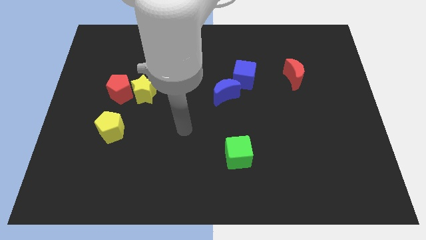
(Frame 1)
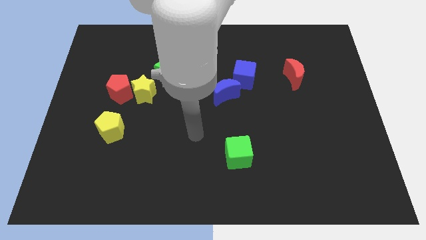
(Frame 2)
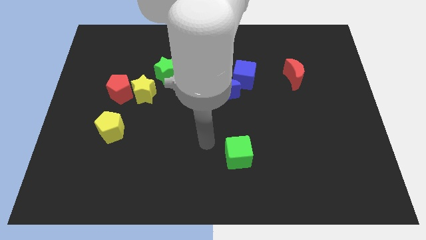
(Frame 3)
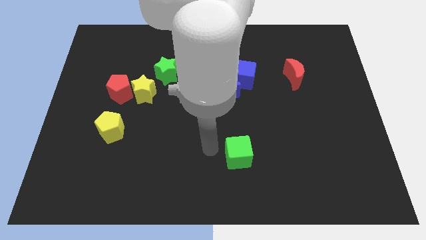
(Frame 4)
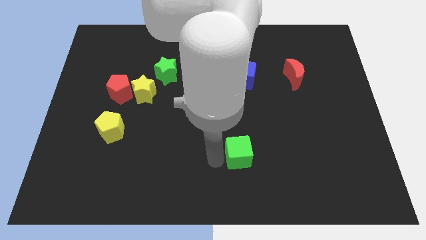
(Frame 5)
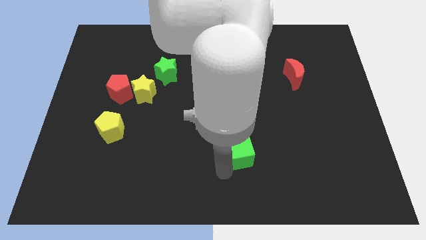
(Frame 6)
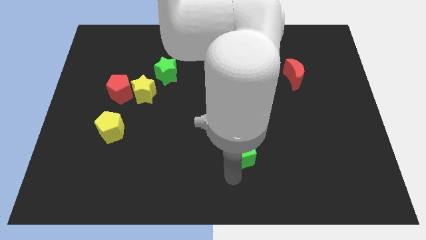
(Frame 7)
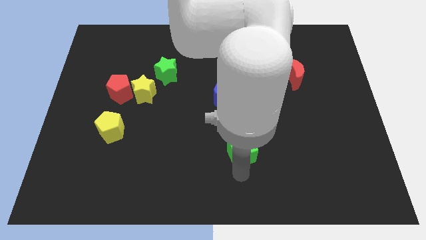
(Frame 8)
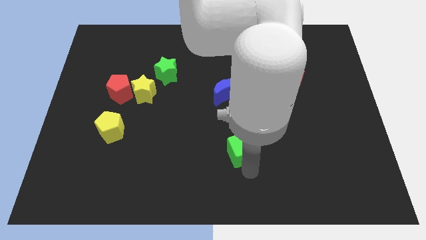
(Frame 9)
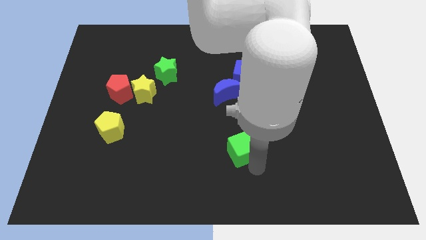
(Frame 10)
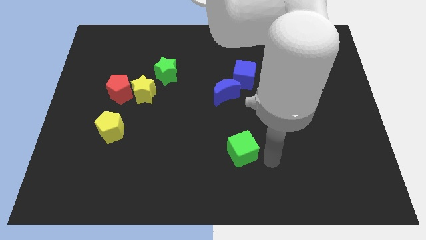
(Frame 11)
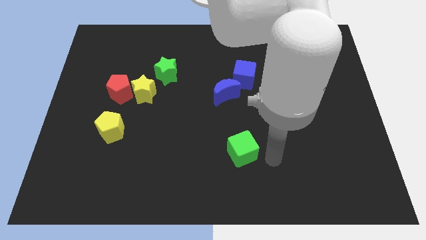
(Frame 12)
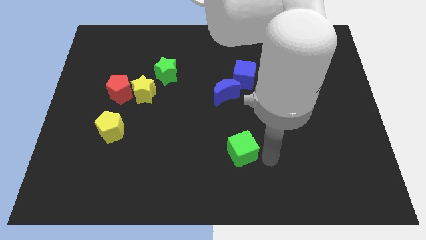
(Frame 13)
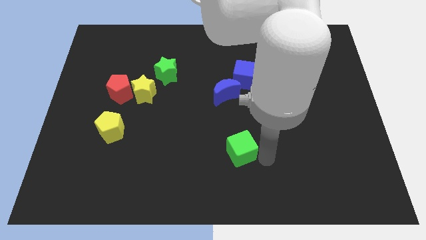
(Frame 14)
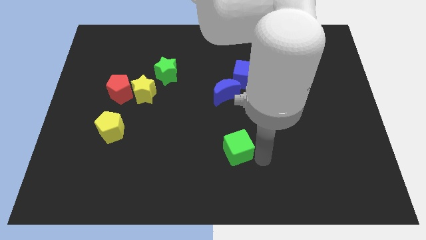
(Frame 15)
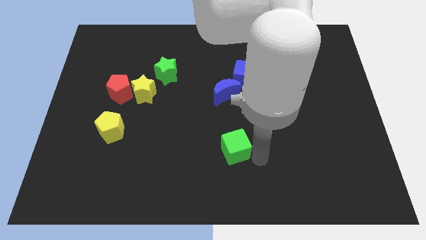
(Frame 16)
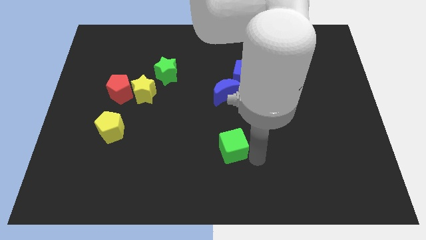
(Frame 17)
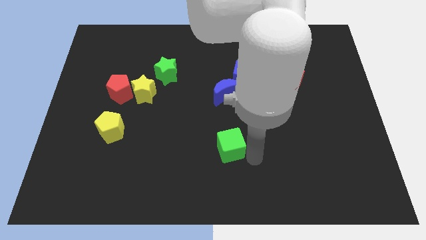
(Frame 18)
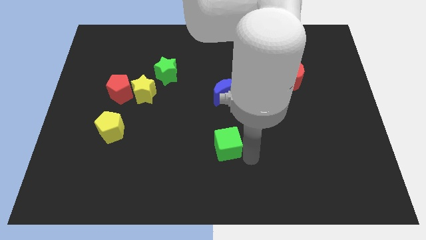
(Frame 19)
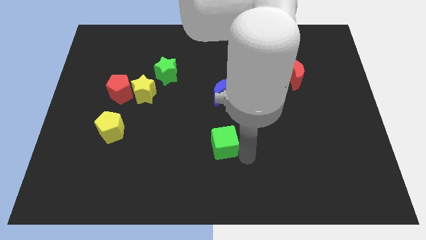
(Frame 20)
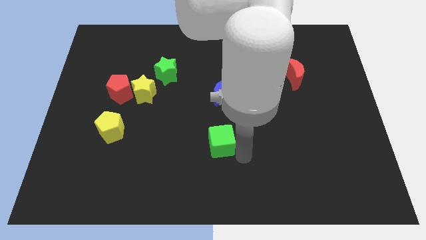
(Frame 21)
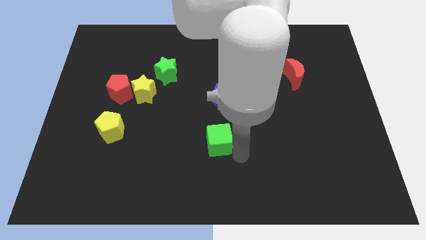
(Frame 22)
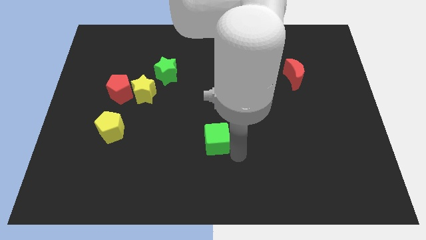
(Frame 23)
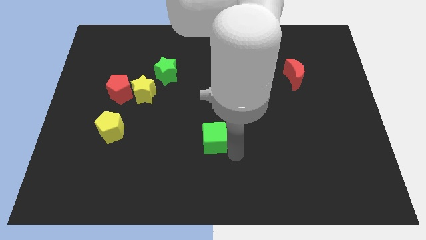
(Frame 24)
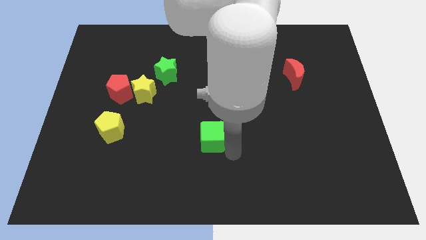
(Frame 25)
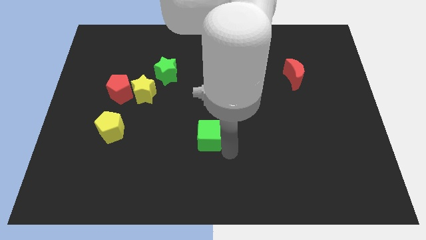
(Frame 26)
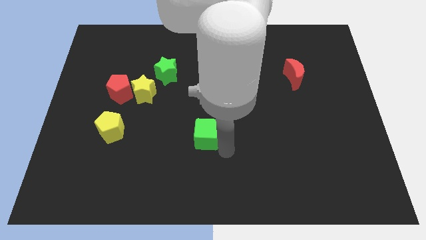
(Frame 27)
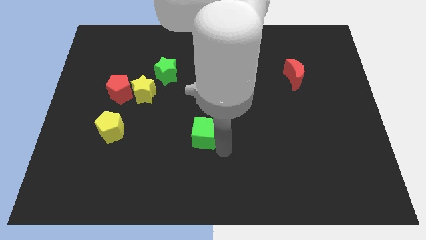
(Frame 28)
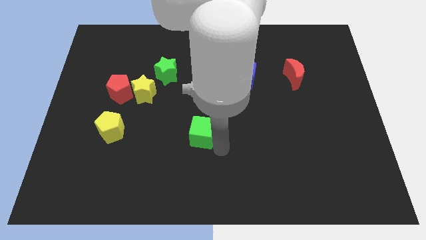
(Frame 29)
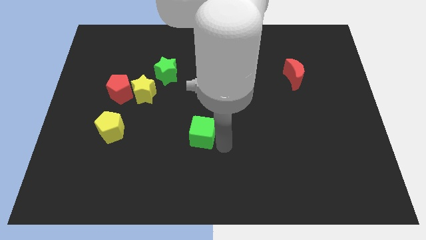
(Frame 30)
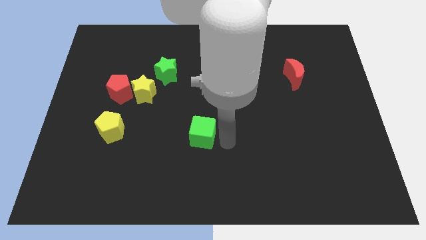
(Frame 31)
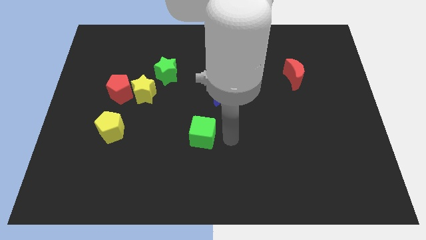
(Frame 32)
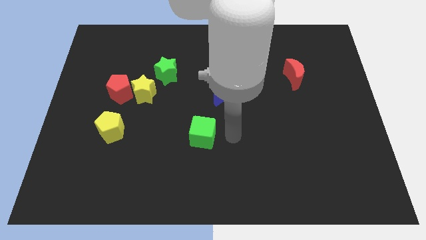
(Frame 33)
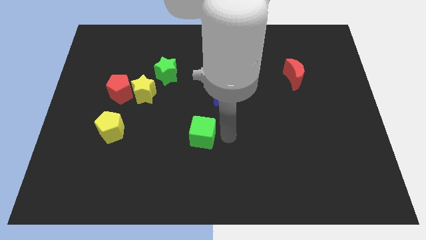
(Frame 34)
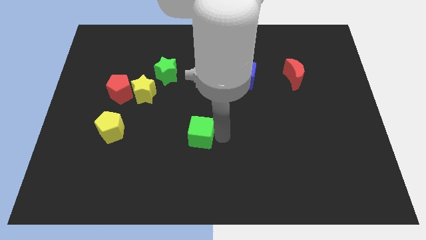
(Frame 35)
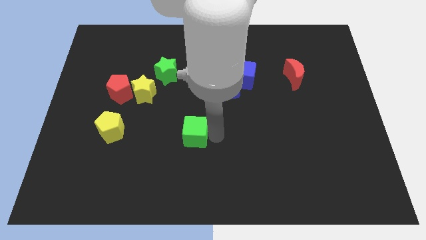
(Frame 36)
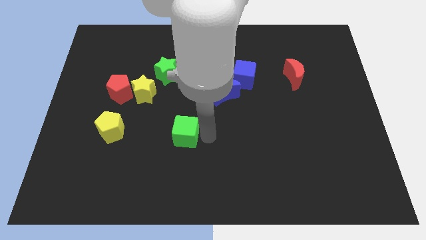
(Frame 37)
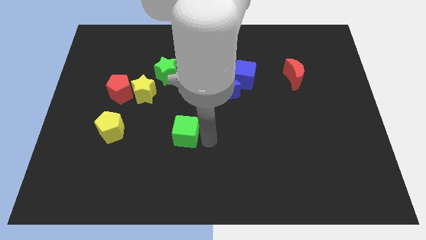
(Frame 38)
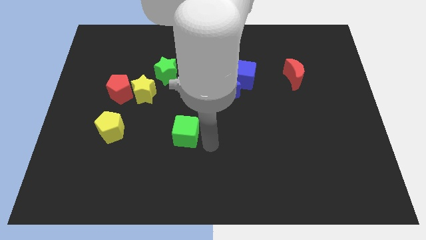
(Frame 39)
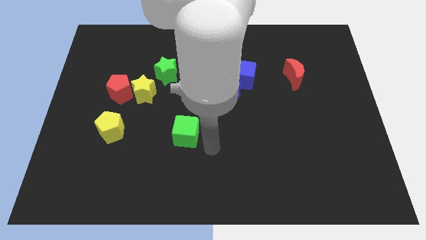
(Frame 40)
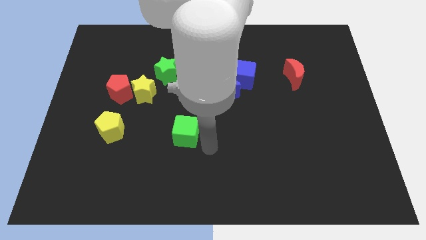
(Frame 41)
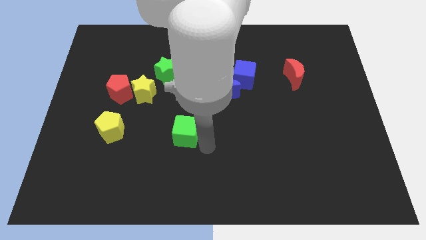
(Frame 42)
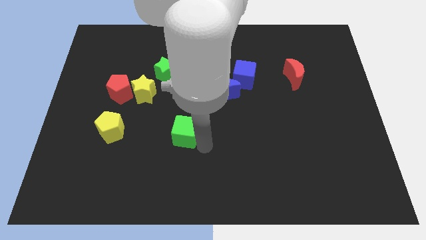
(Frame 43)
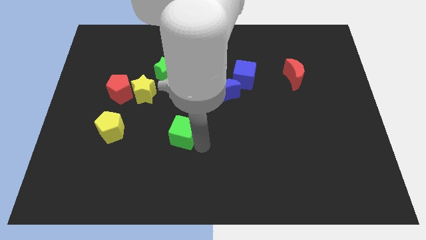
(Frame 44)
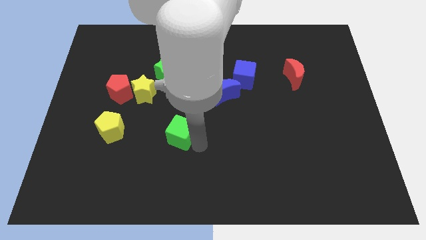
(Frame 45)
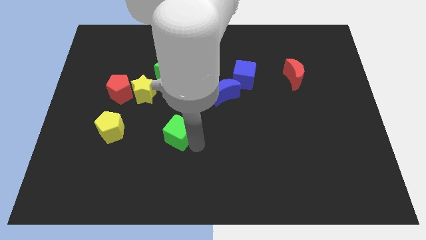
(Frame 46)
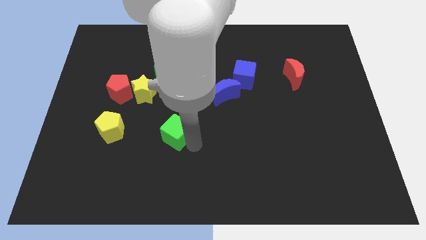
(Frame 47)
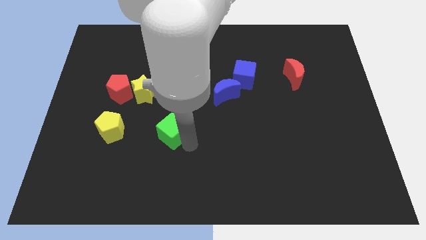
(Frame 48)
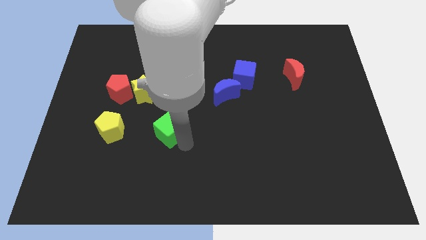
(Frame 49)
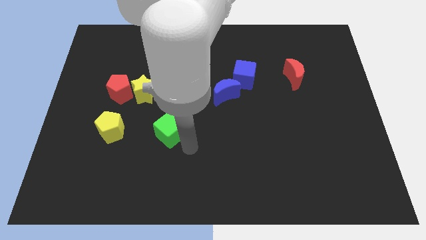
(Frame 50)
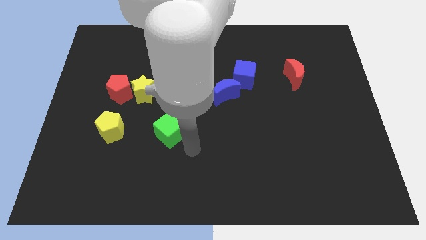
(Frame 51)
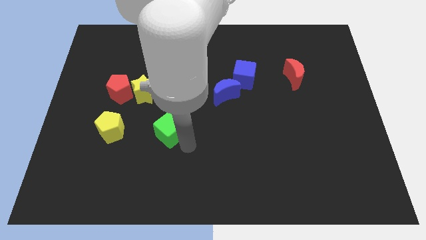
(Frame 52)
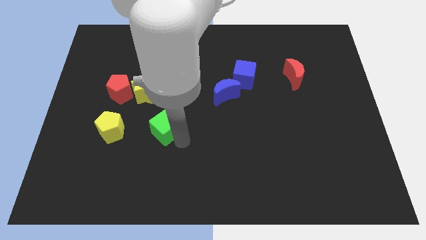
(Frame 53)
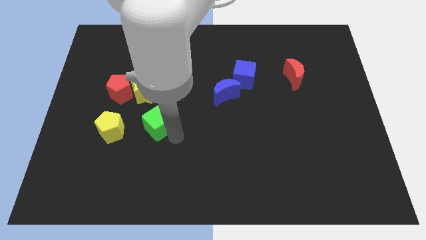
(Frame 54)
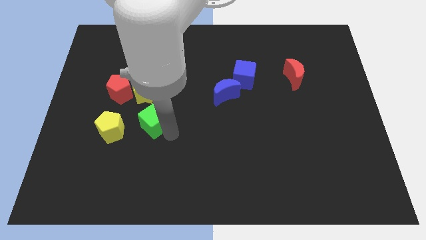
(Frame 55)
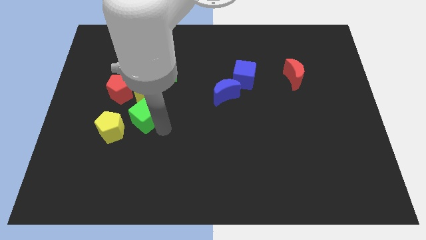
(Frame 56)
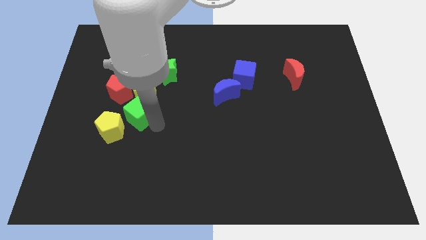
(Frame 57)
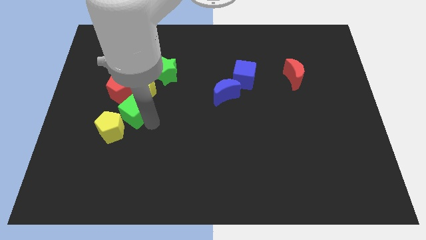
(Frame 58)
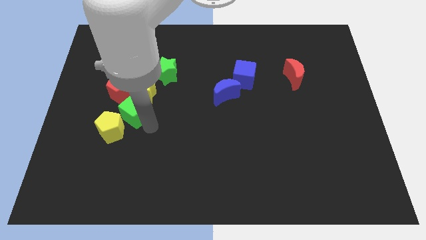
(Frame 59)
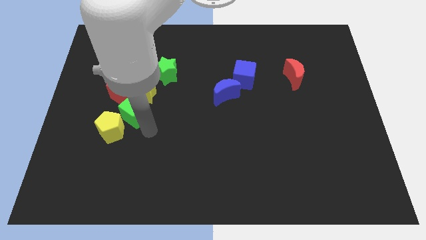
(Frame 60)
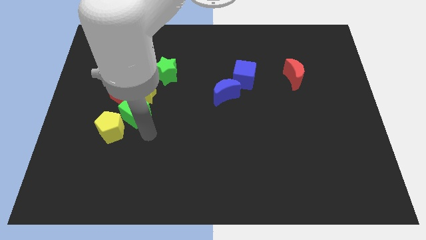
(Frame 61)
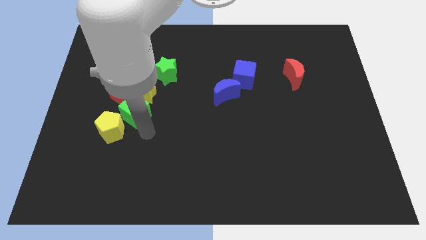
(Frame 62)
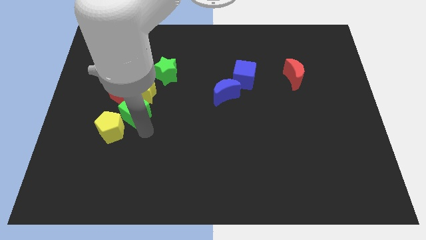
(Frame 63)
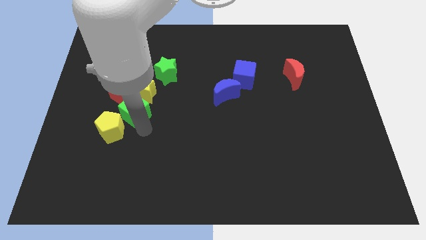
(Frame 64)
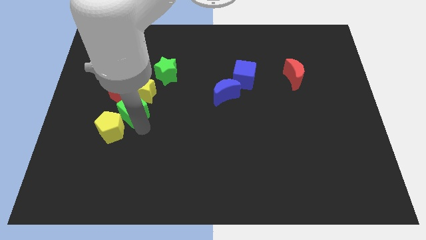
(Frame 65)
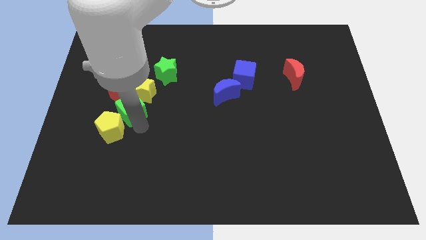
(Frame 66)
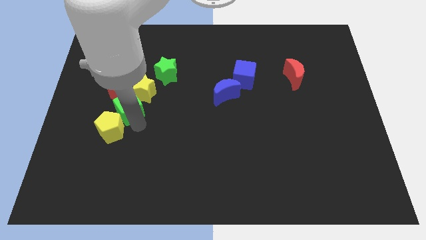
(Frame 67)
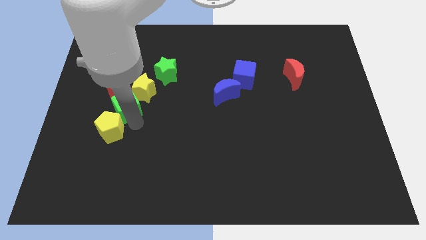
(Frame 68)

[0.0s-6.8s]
push the green cube to the red pentagon

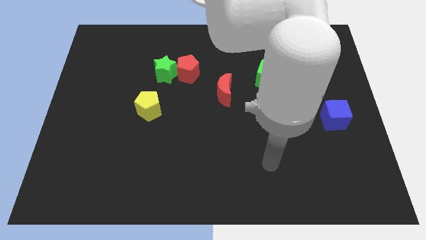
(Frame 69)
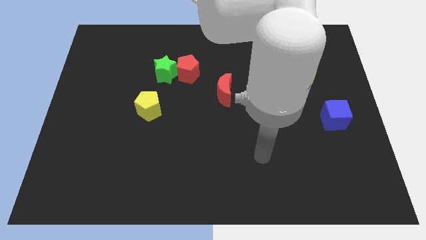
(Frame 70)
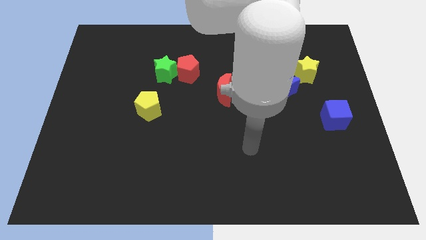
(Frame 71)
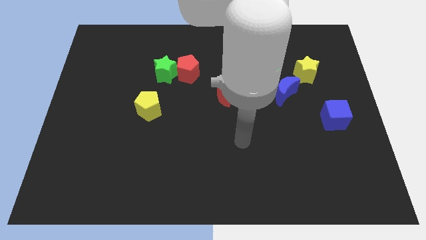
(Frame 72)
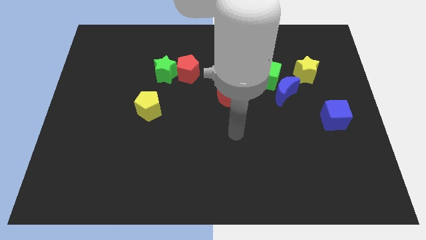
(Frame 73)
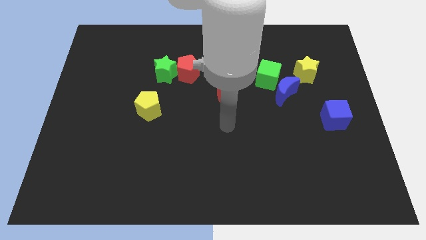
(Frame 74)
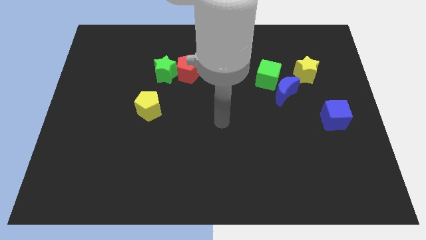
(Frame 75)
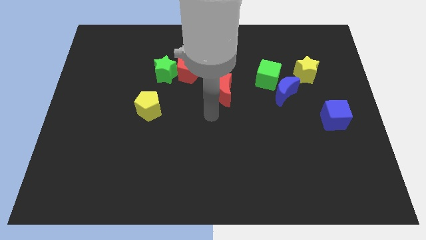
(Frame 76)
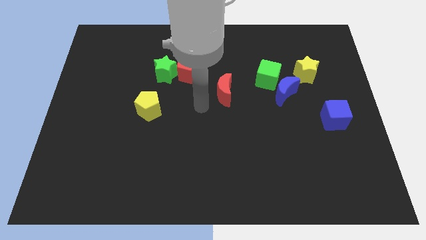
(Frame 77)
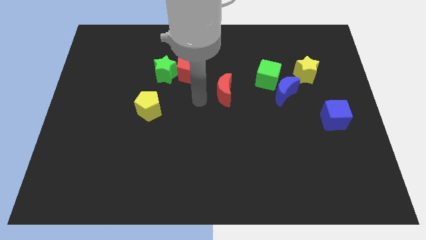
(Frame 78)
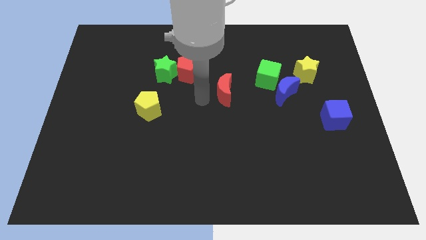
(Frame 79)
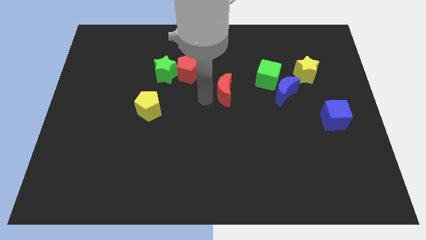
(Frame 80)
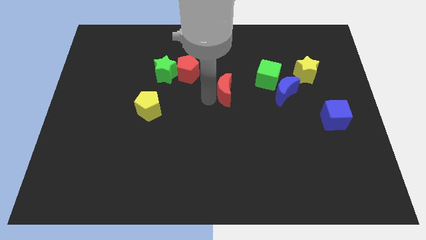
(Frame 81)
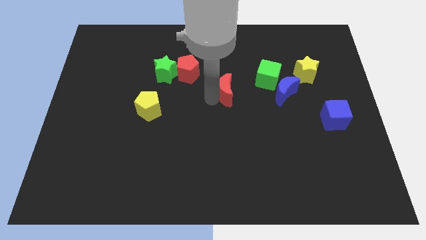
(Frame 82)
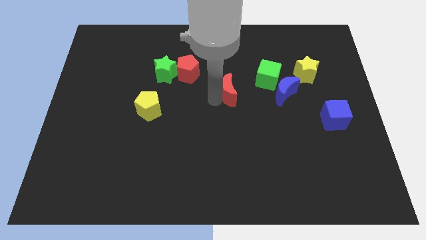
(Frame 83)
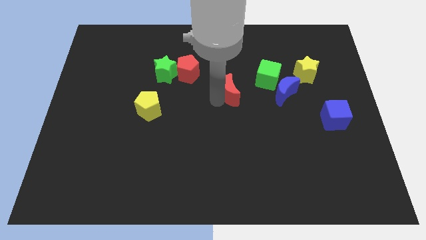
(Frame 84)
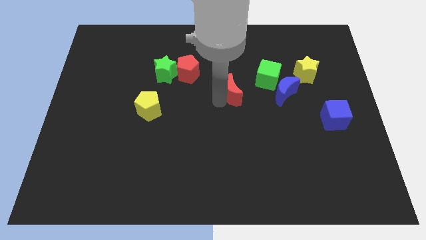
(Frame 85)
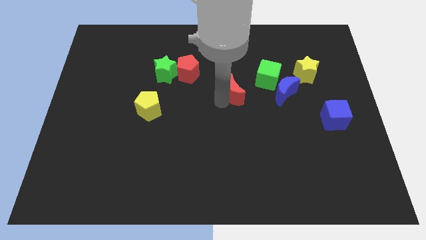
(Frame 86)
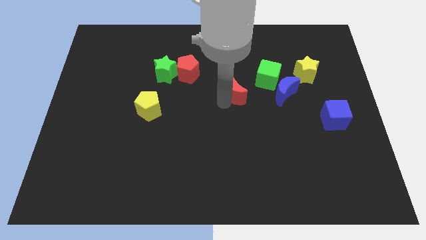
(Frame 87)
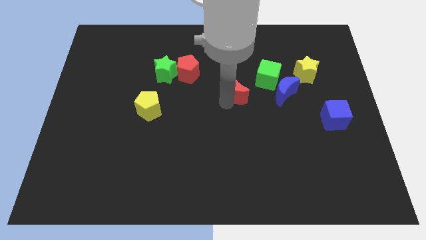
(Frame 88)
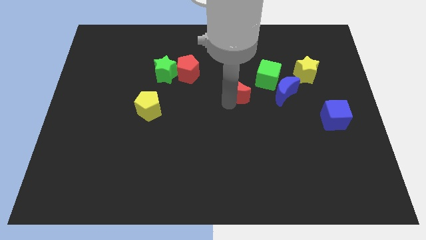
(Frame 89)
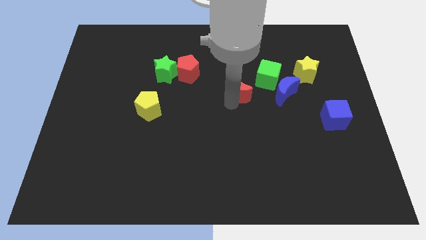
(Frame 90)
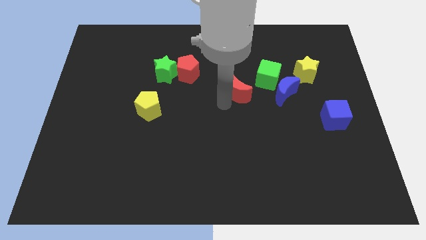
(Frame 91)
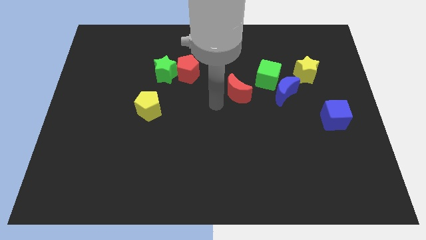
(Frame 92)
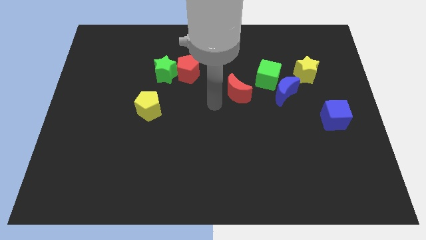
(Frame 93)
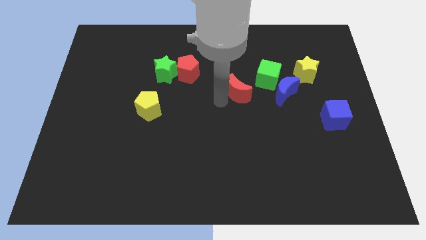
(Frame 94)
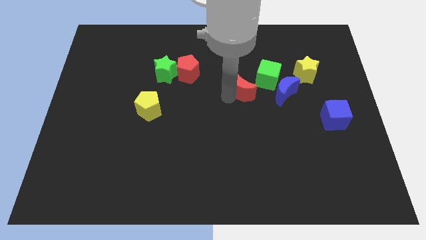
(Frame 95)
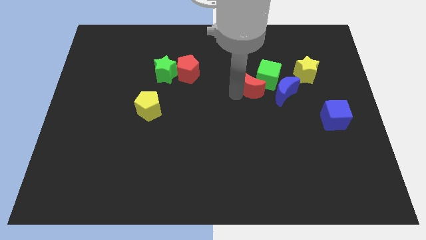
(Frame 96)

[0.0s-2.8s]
push the red moon to the green cube
